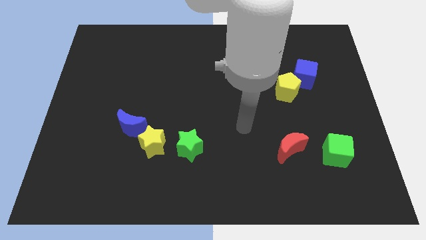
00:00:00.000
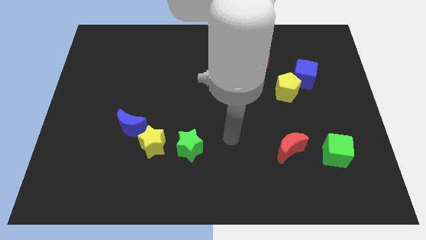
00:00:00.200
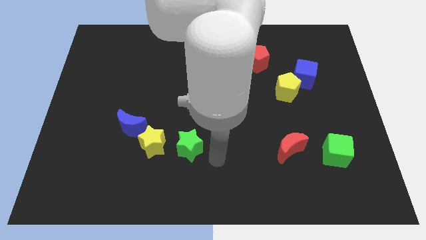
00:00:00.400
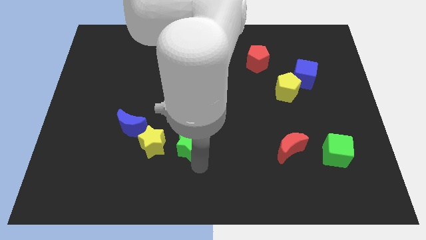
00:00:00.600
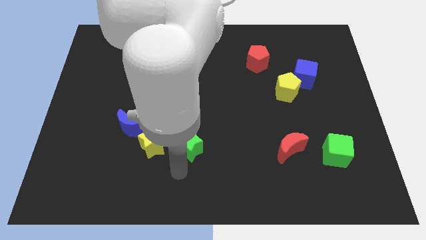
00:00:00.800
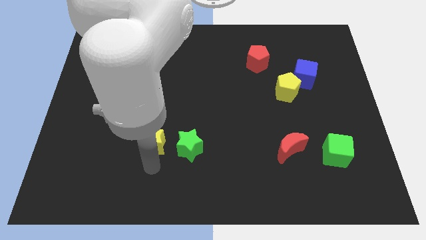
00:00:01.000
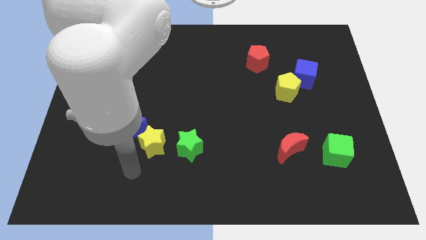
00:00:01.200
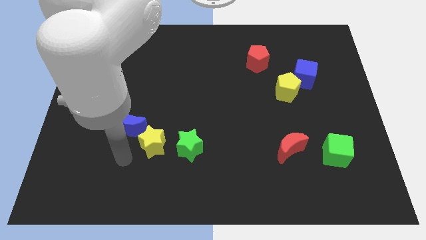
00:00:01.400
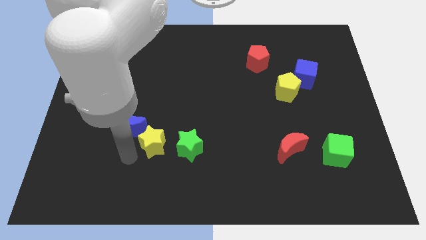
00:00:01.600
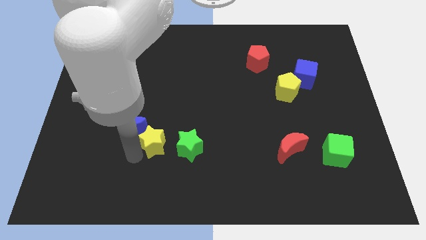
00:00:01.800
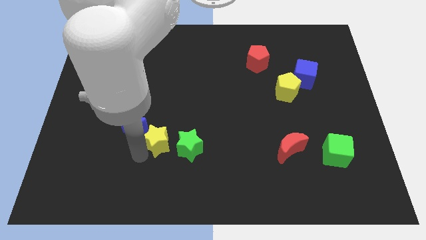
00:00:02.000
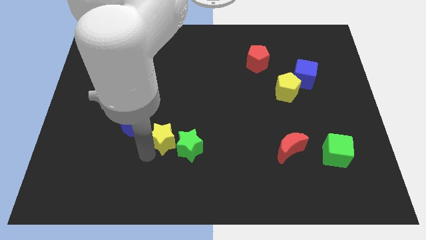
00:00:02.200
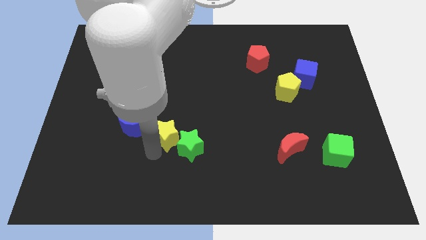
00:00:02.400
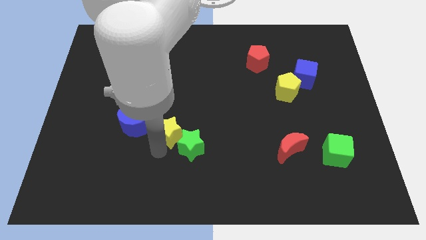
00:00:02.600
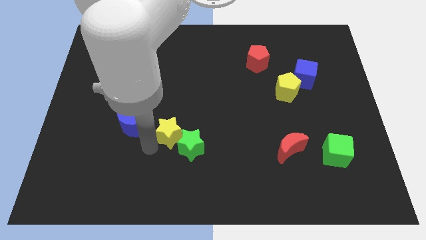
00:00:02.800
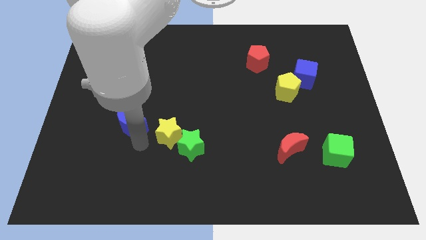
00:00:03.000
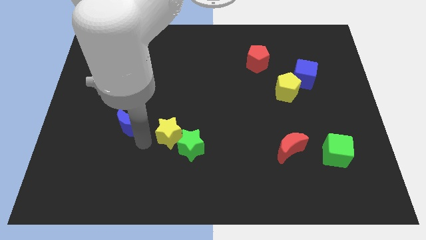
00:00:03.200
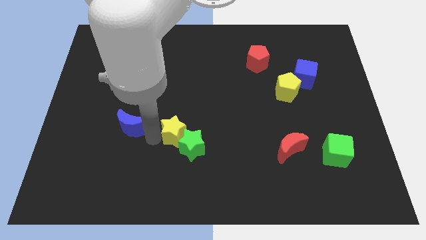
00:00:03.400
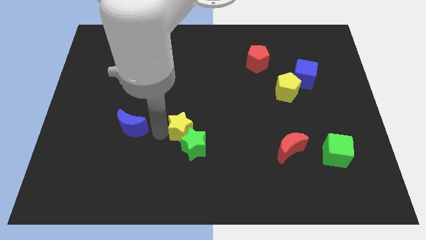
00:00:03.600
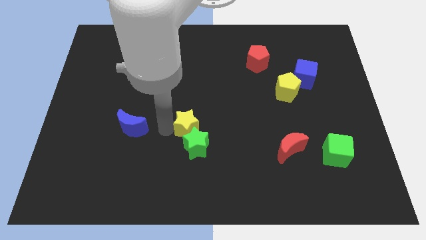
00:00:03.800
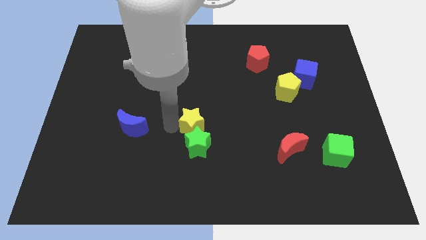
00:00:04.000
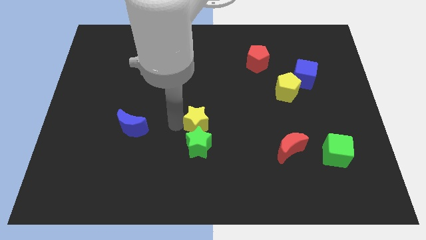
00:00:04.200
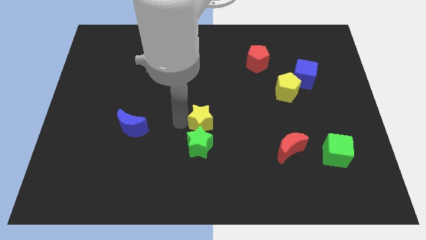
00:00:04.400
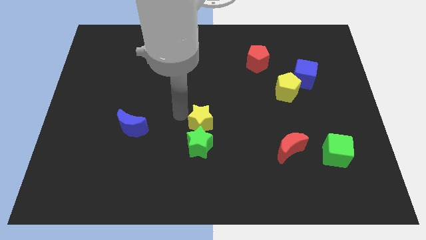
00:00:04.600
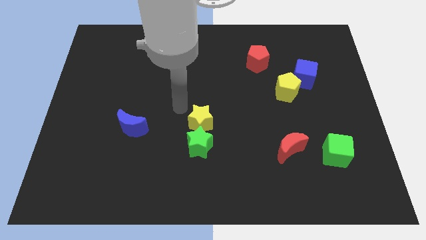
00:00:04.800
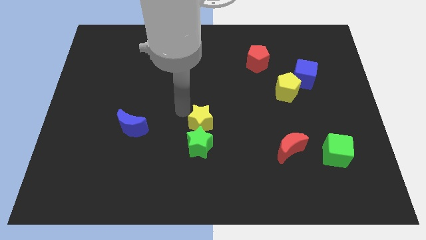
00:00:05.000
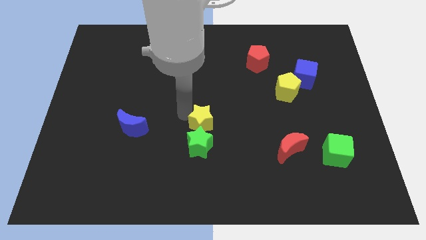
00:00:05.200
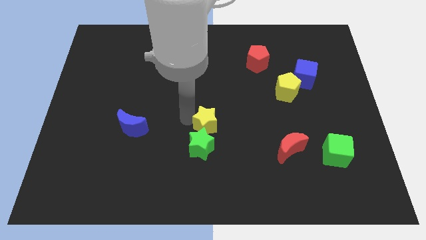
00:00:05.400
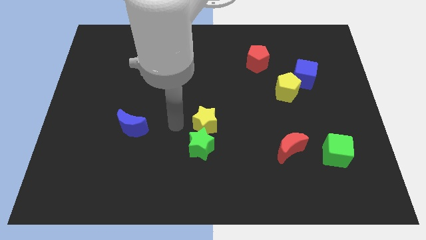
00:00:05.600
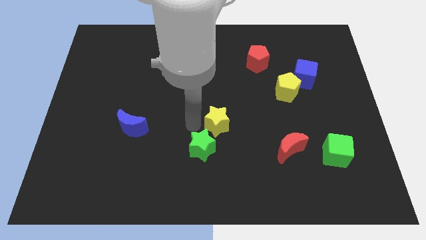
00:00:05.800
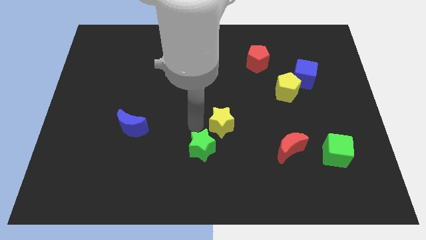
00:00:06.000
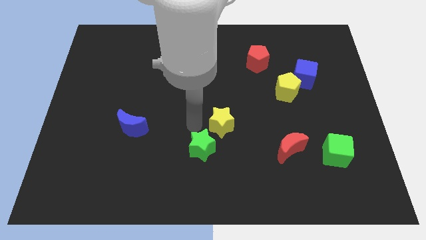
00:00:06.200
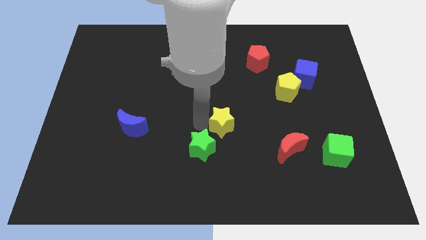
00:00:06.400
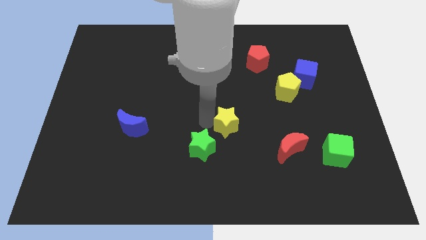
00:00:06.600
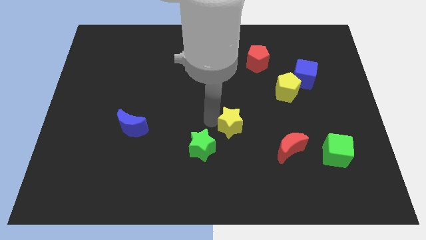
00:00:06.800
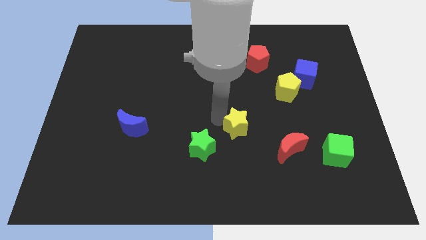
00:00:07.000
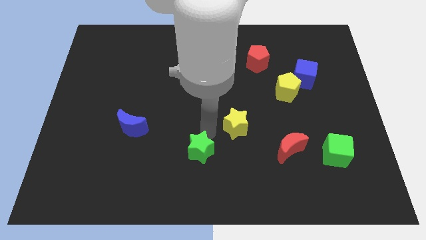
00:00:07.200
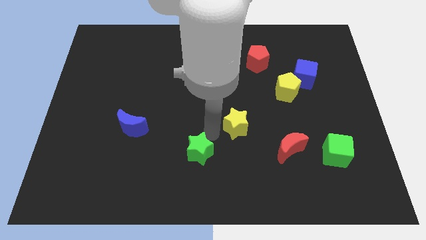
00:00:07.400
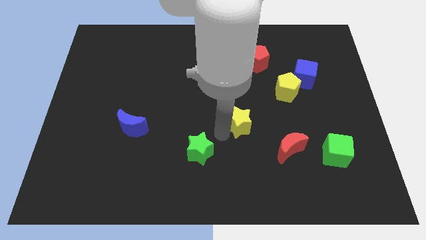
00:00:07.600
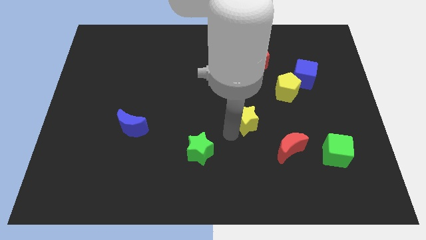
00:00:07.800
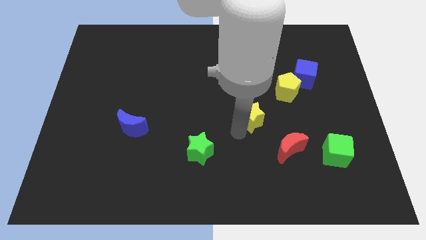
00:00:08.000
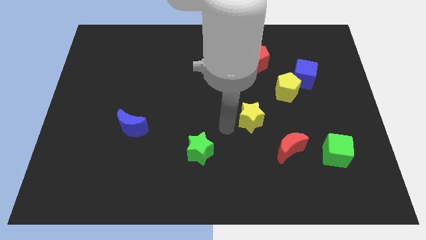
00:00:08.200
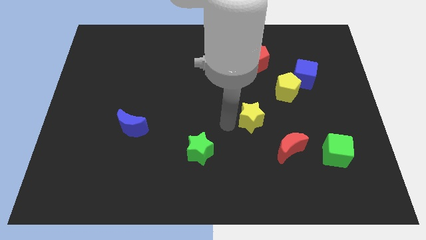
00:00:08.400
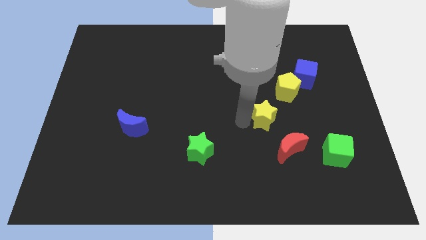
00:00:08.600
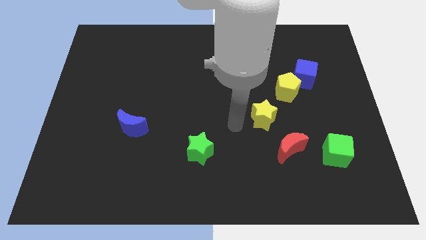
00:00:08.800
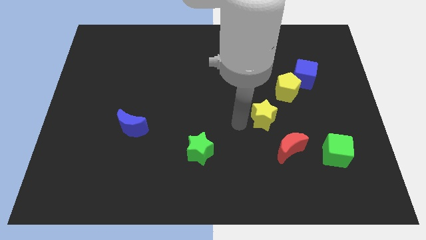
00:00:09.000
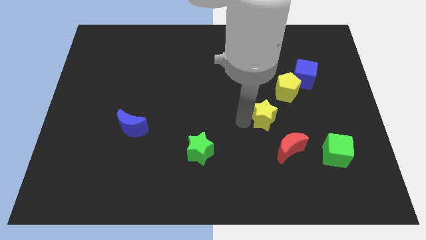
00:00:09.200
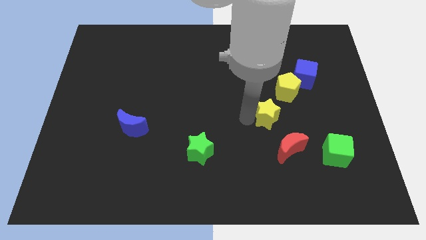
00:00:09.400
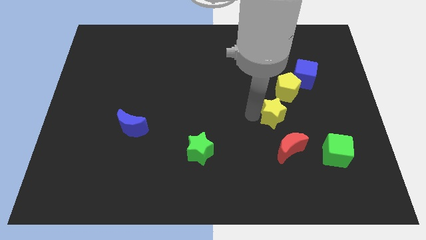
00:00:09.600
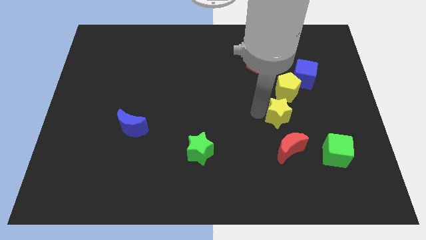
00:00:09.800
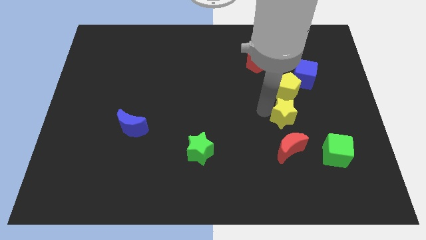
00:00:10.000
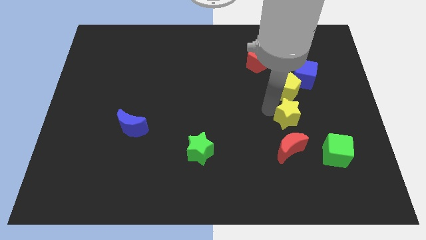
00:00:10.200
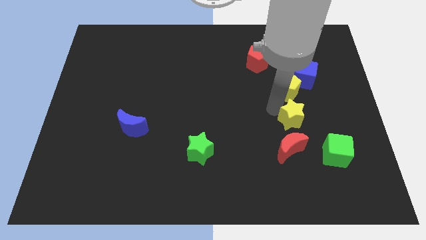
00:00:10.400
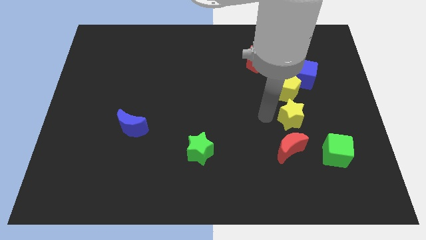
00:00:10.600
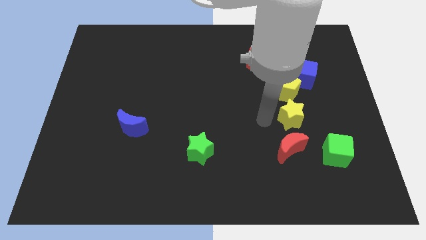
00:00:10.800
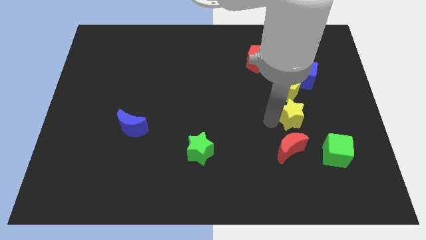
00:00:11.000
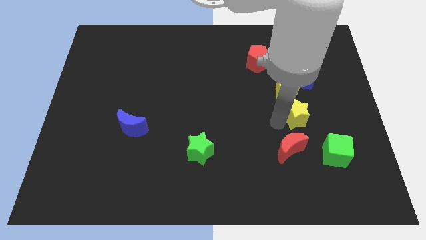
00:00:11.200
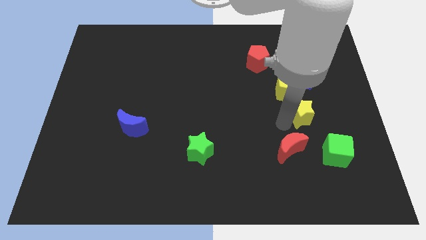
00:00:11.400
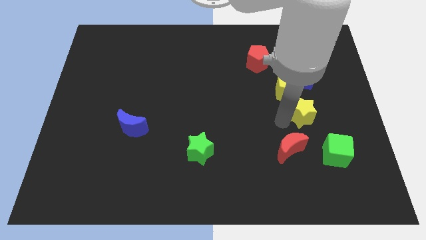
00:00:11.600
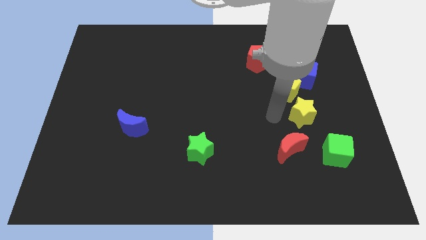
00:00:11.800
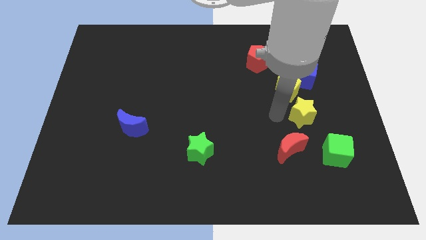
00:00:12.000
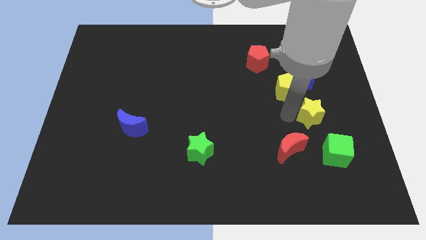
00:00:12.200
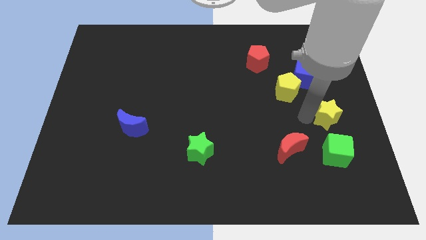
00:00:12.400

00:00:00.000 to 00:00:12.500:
move the yellow star to the center right

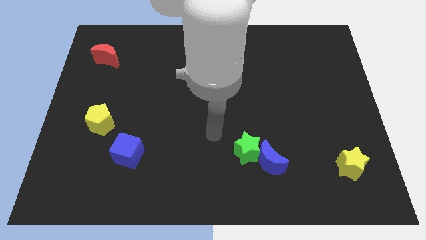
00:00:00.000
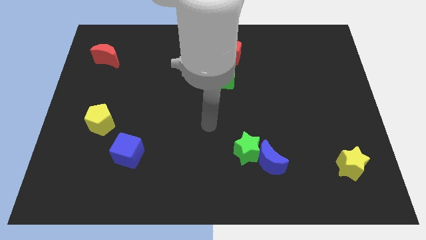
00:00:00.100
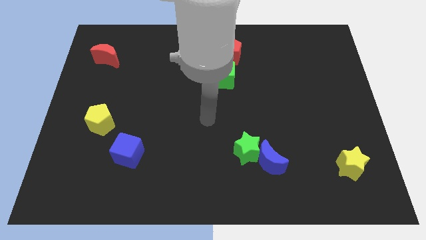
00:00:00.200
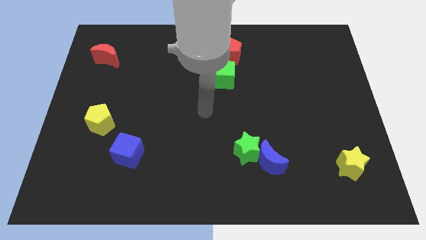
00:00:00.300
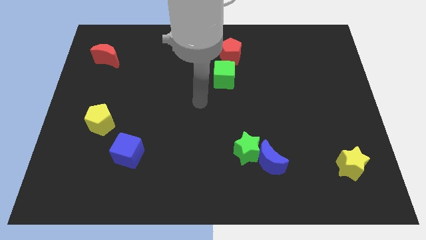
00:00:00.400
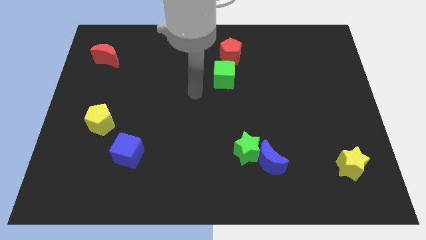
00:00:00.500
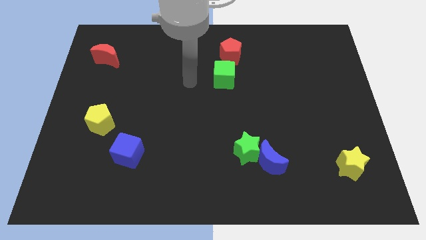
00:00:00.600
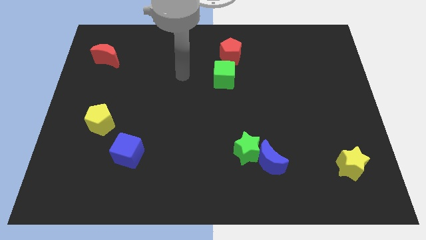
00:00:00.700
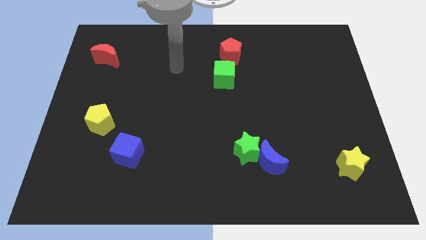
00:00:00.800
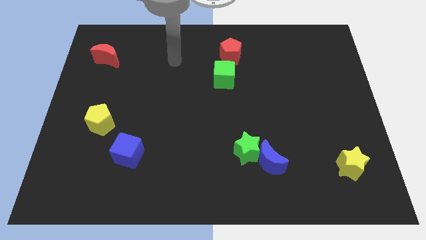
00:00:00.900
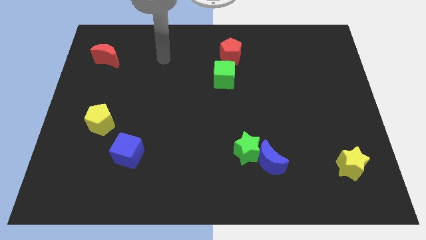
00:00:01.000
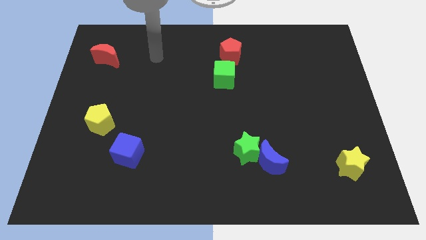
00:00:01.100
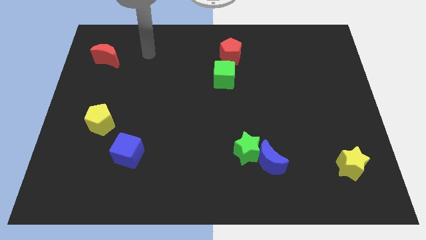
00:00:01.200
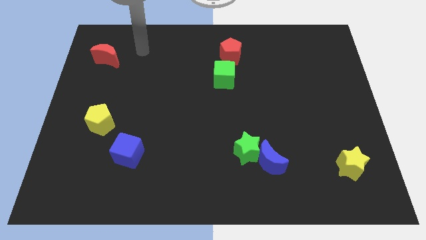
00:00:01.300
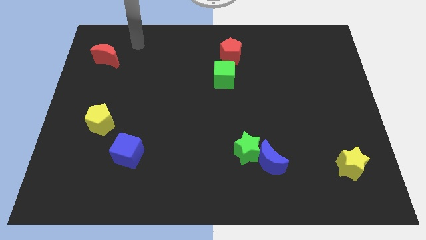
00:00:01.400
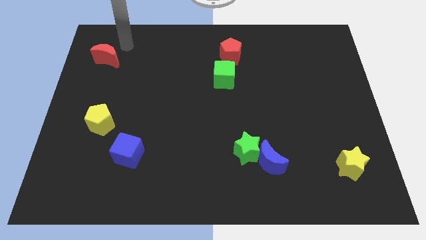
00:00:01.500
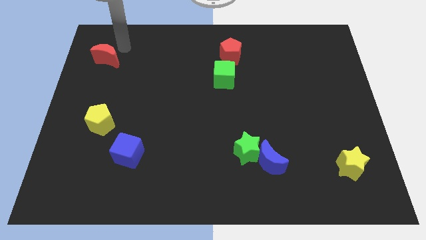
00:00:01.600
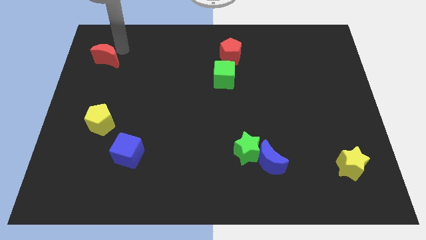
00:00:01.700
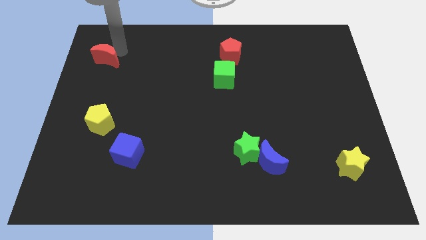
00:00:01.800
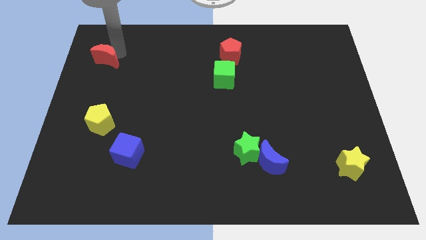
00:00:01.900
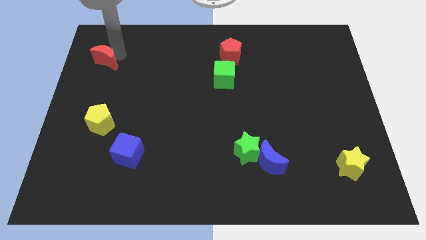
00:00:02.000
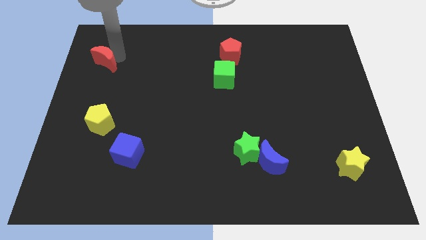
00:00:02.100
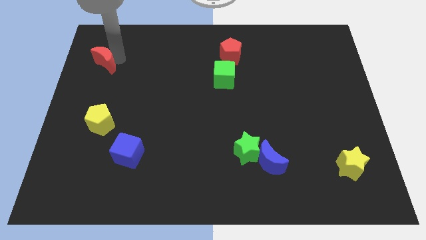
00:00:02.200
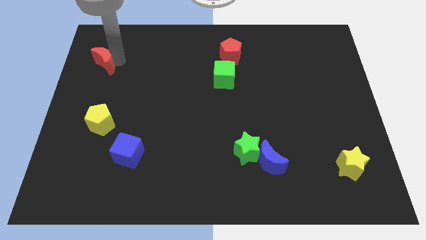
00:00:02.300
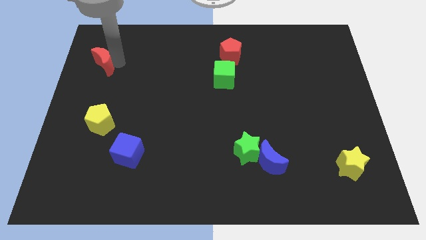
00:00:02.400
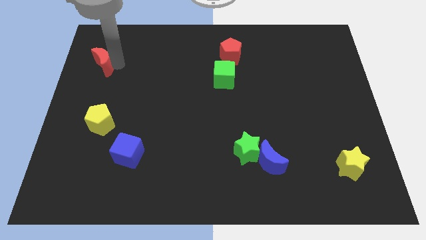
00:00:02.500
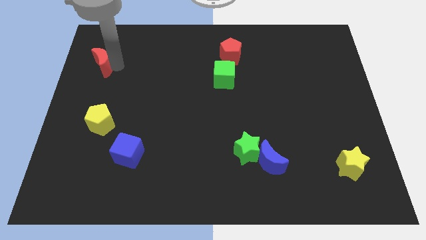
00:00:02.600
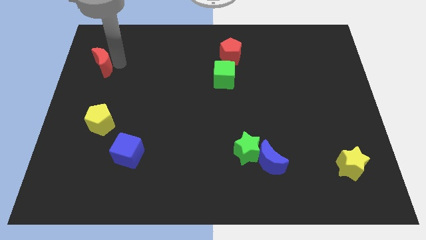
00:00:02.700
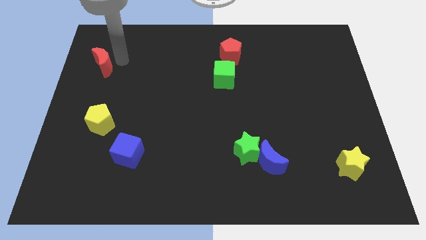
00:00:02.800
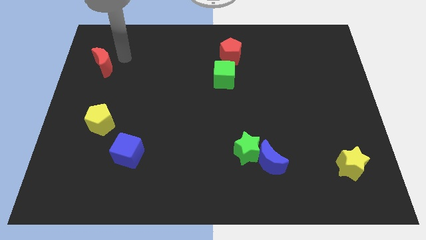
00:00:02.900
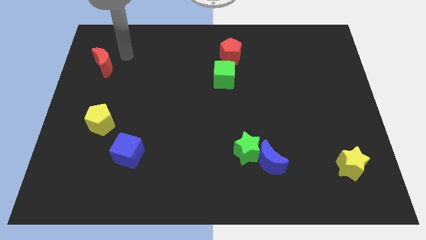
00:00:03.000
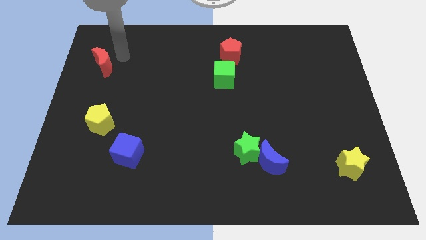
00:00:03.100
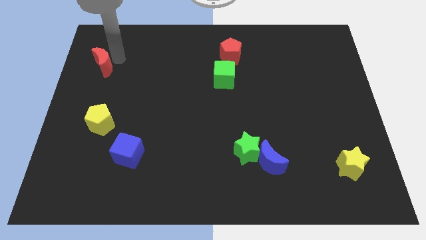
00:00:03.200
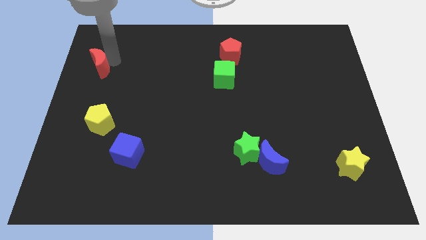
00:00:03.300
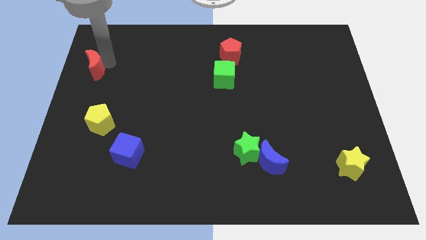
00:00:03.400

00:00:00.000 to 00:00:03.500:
push the red moon to the center left
